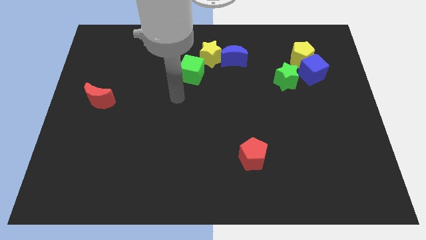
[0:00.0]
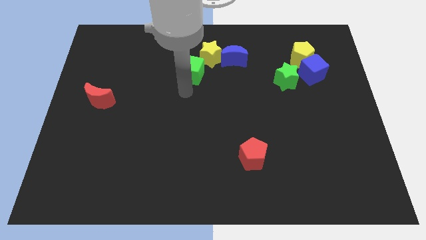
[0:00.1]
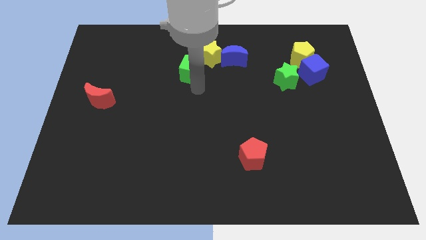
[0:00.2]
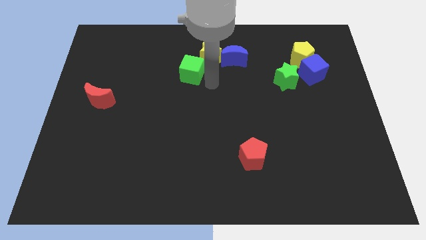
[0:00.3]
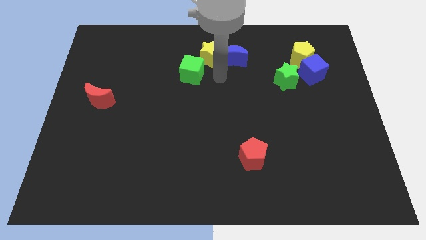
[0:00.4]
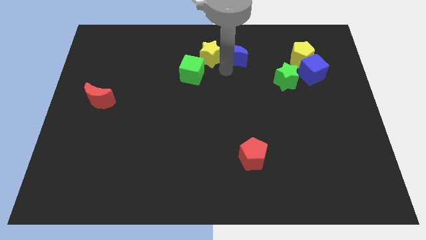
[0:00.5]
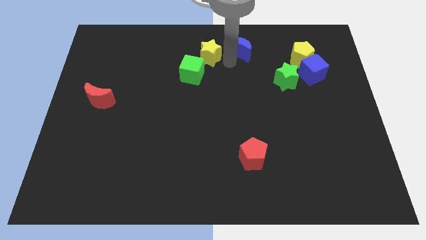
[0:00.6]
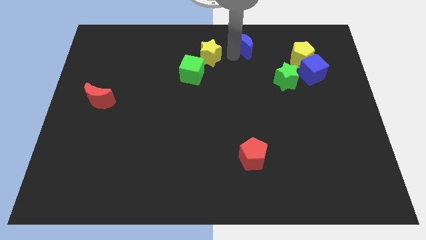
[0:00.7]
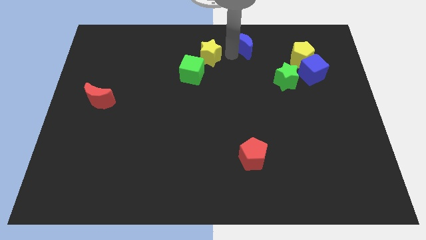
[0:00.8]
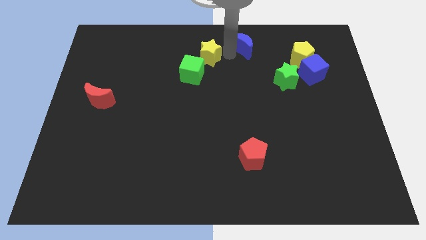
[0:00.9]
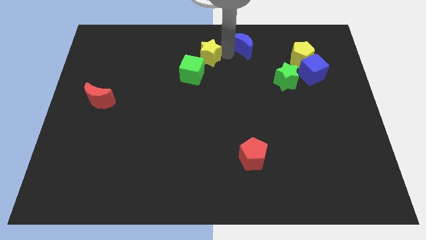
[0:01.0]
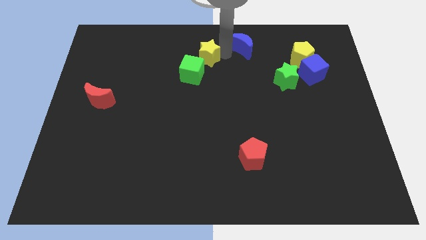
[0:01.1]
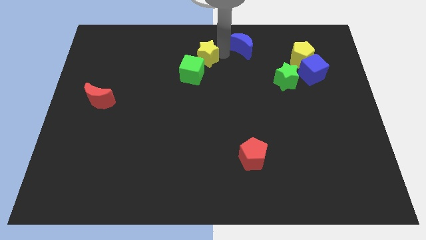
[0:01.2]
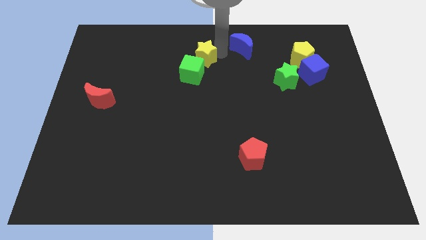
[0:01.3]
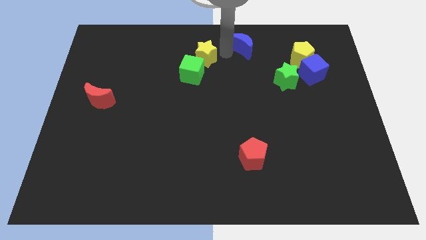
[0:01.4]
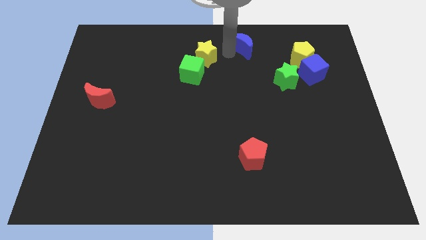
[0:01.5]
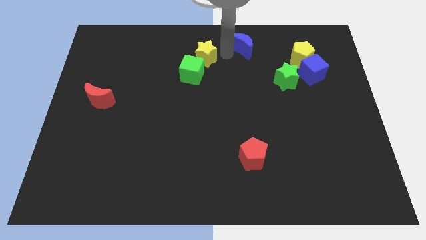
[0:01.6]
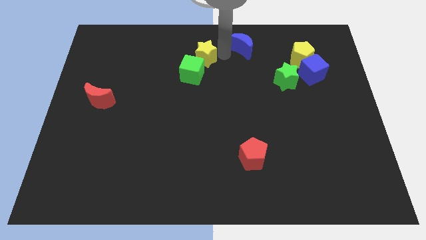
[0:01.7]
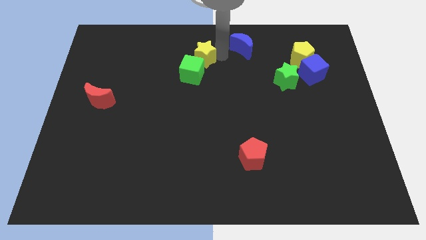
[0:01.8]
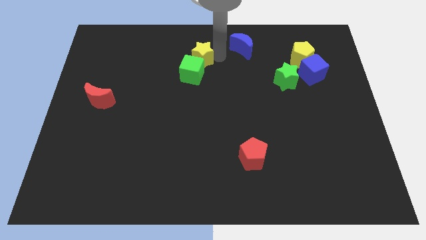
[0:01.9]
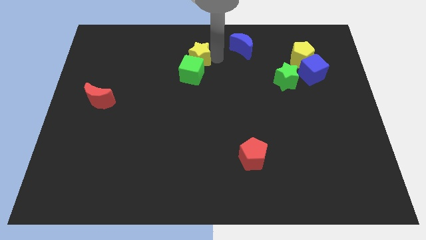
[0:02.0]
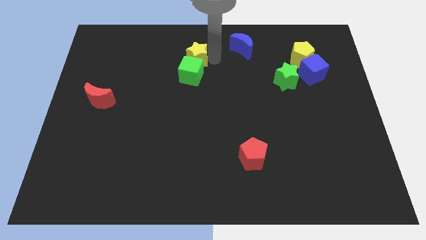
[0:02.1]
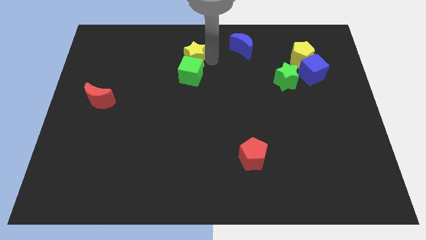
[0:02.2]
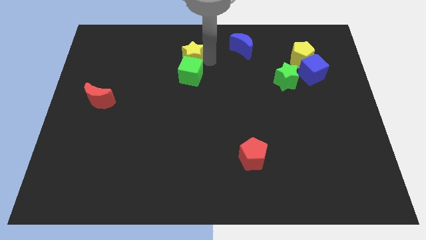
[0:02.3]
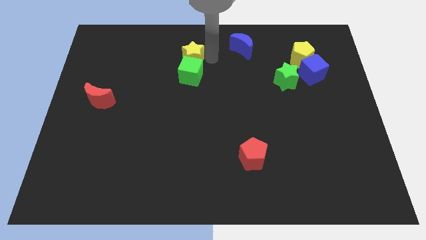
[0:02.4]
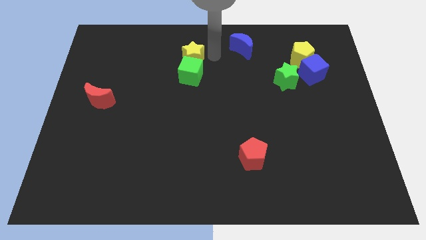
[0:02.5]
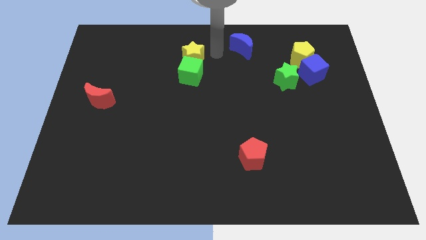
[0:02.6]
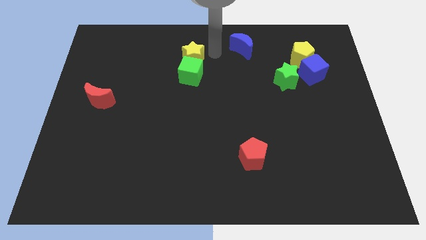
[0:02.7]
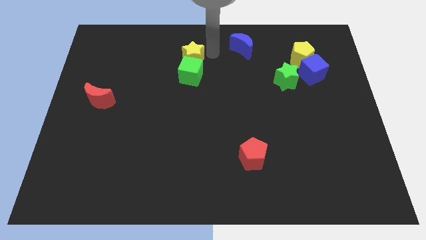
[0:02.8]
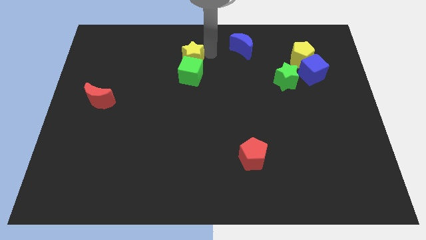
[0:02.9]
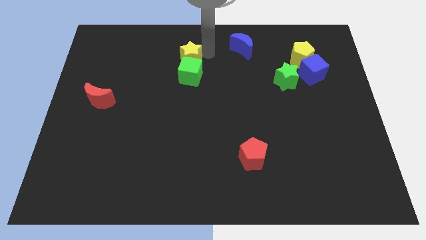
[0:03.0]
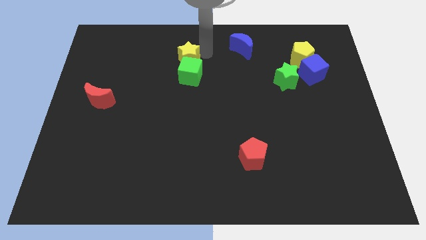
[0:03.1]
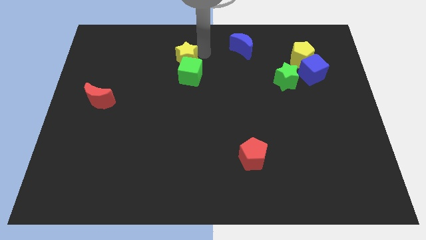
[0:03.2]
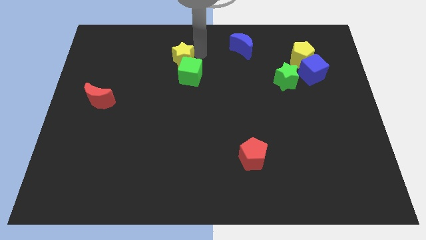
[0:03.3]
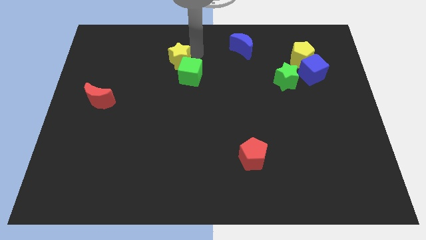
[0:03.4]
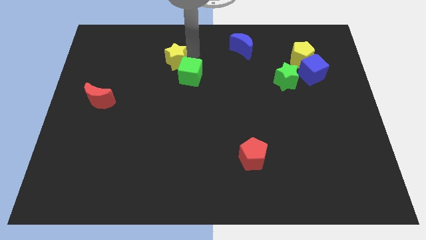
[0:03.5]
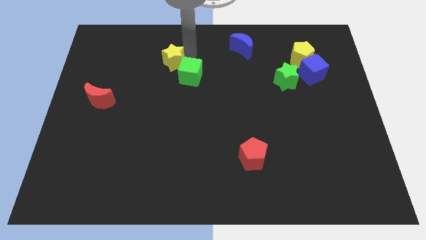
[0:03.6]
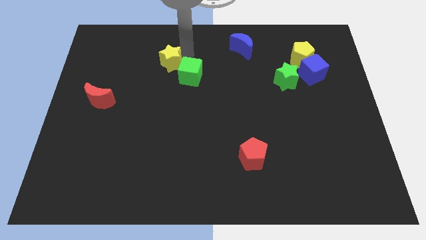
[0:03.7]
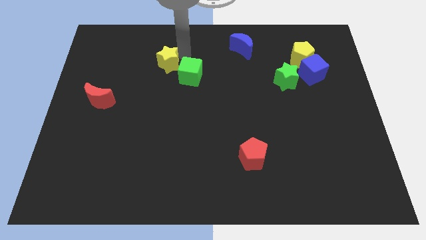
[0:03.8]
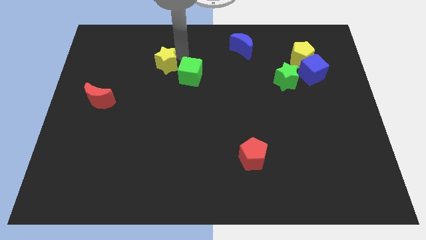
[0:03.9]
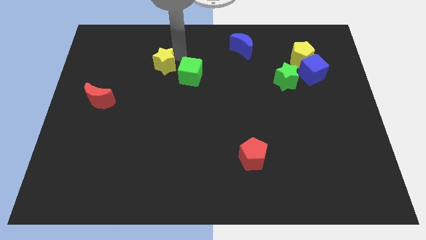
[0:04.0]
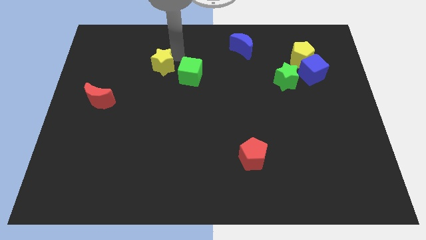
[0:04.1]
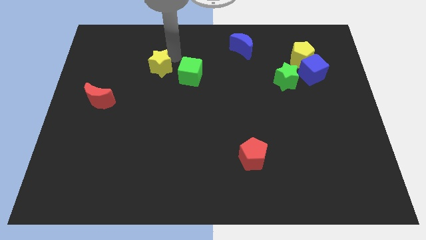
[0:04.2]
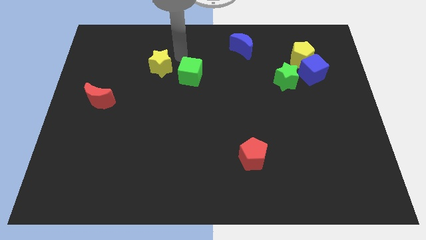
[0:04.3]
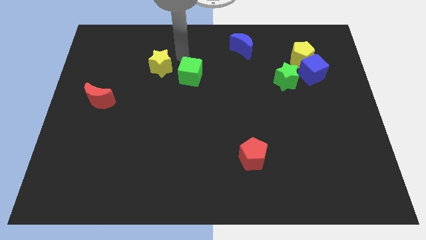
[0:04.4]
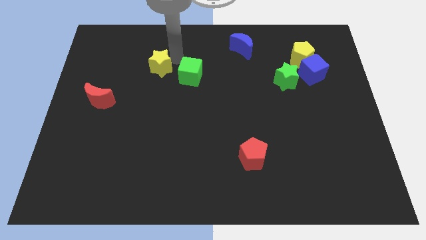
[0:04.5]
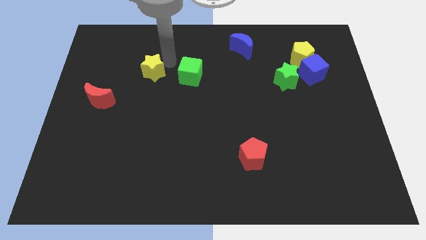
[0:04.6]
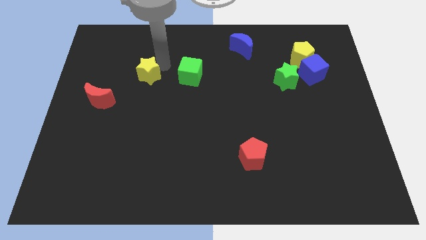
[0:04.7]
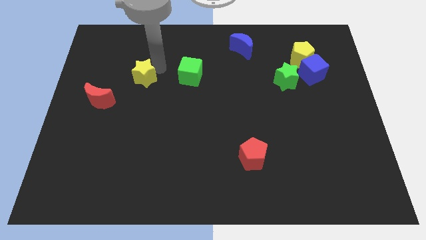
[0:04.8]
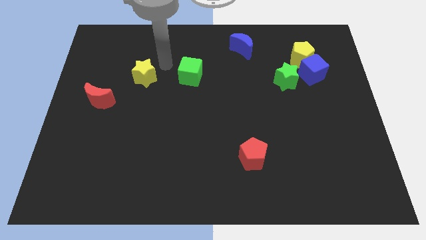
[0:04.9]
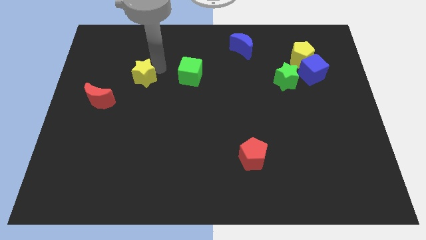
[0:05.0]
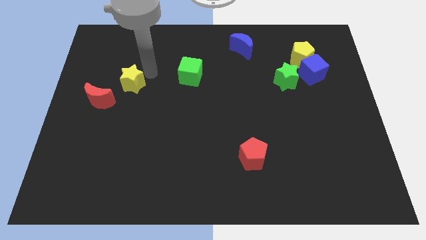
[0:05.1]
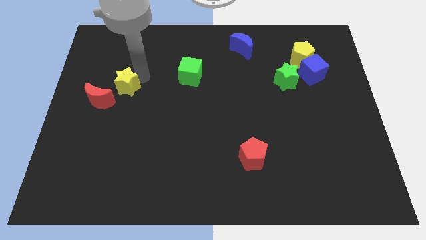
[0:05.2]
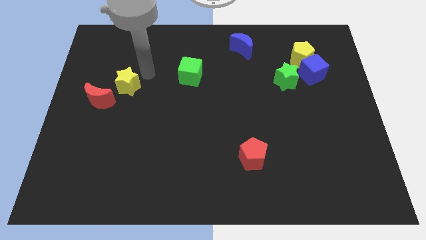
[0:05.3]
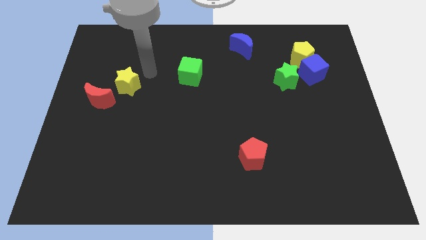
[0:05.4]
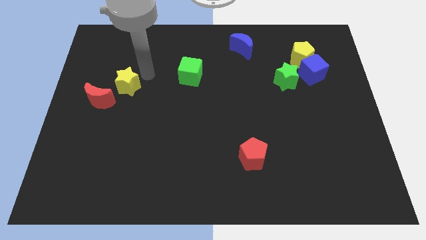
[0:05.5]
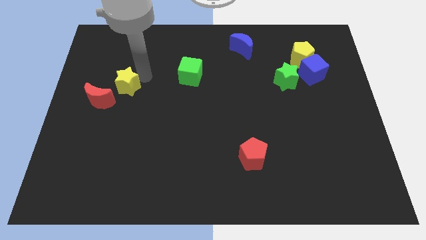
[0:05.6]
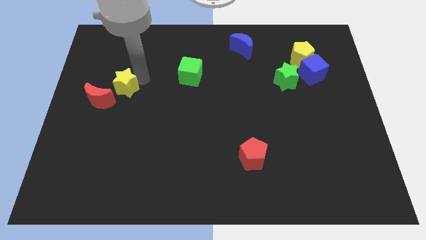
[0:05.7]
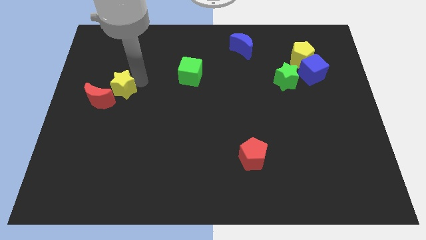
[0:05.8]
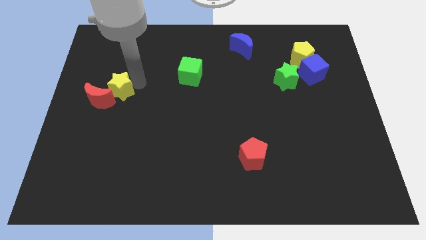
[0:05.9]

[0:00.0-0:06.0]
move the yellow star close to the red moon

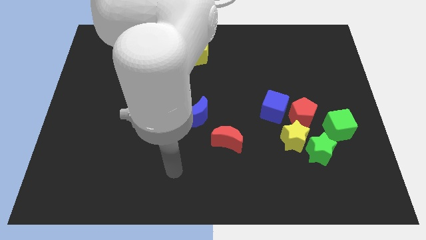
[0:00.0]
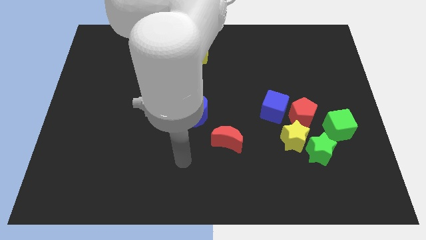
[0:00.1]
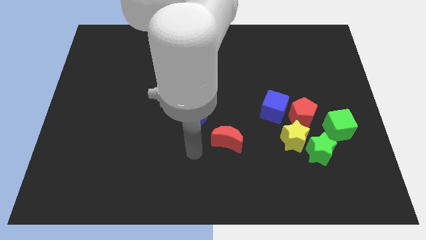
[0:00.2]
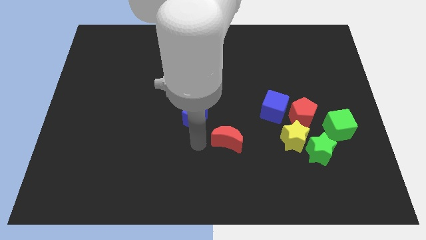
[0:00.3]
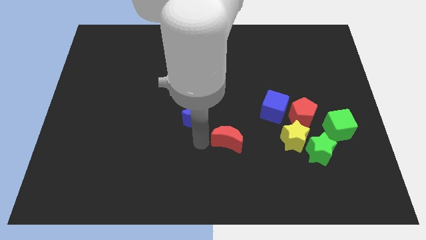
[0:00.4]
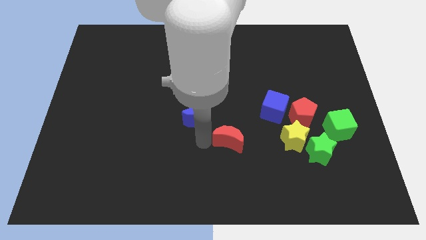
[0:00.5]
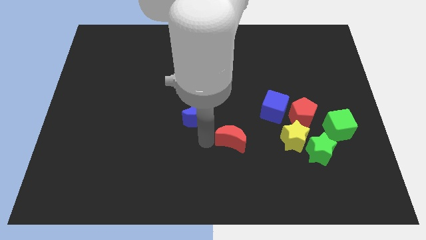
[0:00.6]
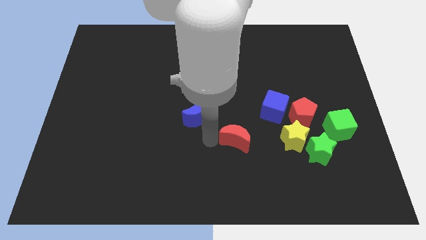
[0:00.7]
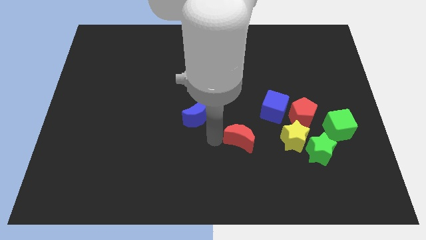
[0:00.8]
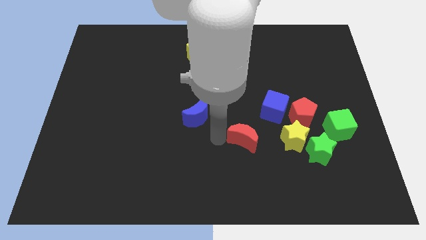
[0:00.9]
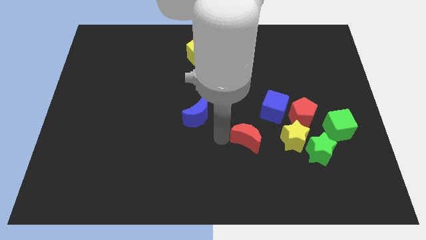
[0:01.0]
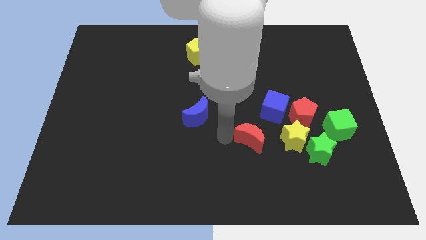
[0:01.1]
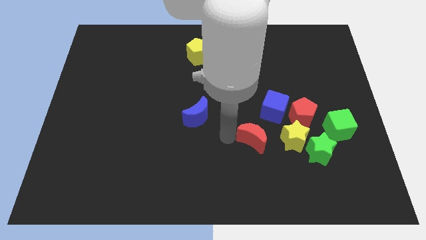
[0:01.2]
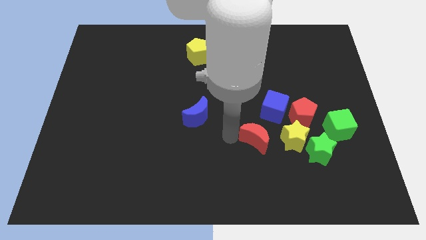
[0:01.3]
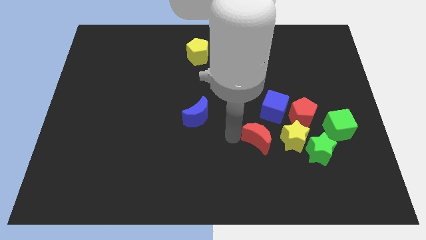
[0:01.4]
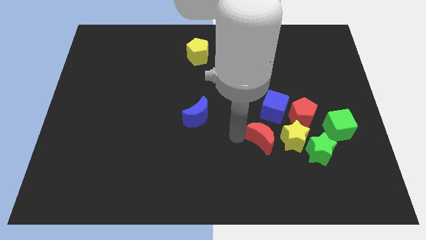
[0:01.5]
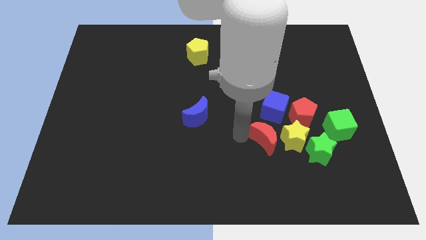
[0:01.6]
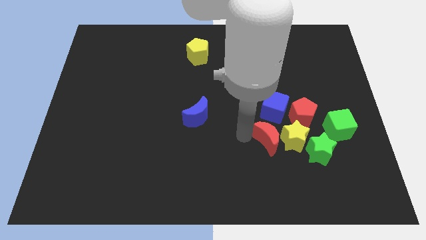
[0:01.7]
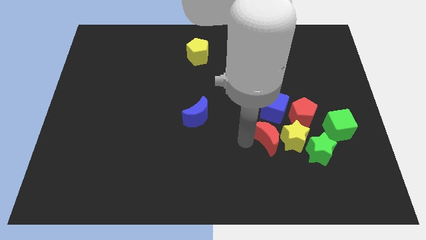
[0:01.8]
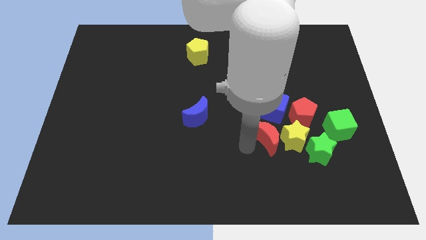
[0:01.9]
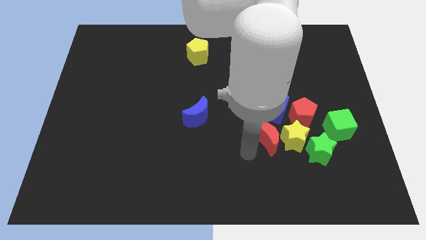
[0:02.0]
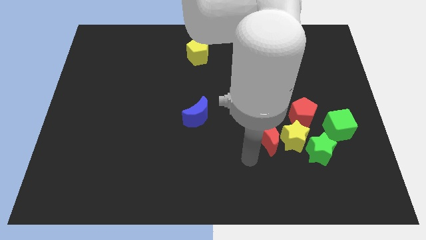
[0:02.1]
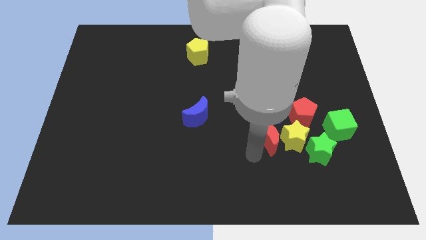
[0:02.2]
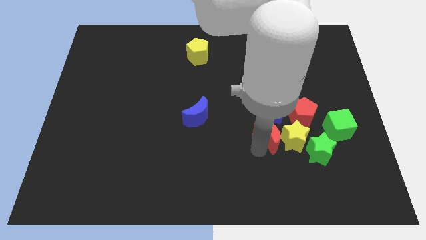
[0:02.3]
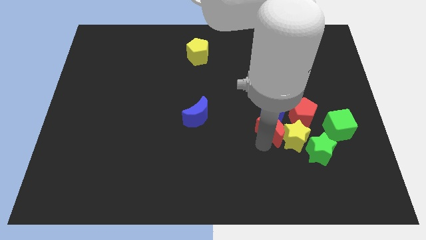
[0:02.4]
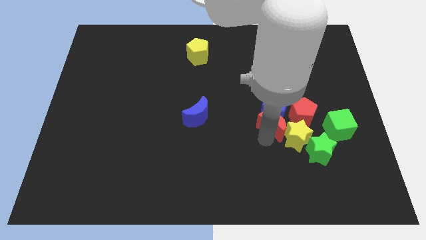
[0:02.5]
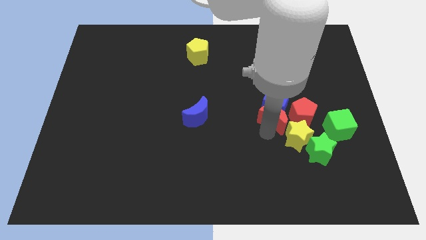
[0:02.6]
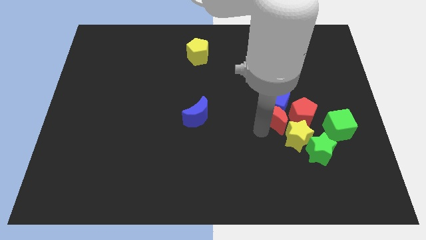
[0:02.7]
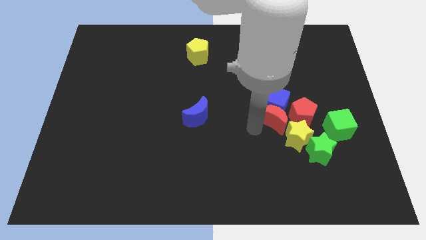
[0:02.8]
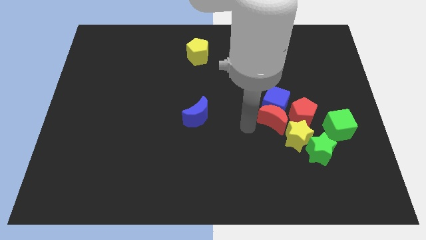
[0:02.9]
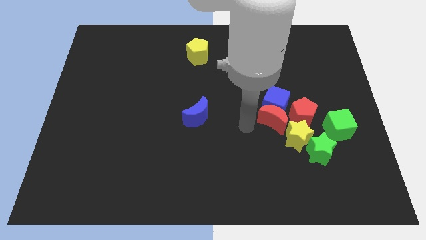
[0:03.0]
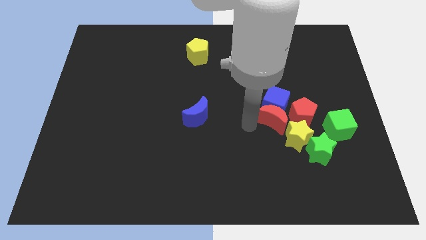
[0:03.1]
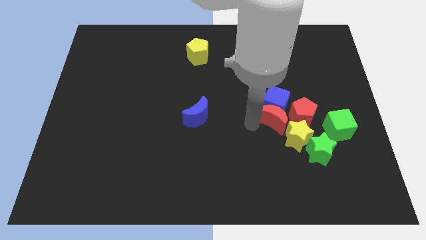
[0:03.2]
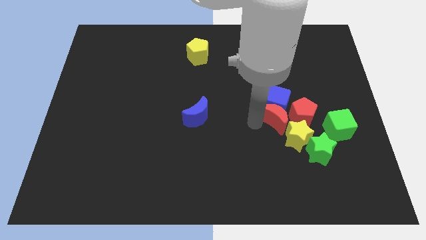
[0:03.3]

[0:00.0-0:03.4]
put the red moon towards the red pentagon
